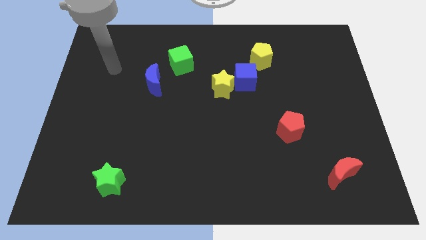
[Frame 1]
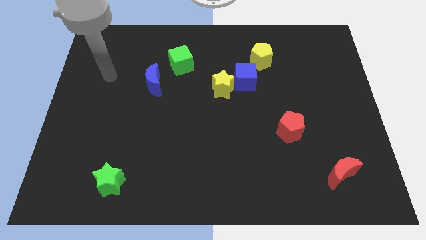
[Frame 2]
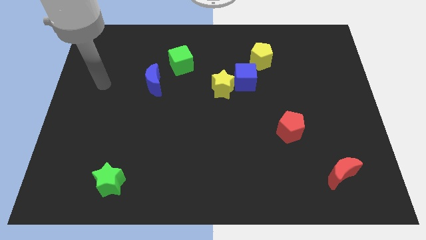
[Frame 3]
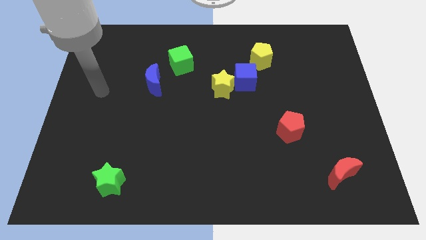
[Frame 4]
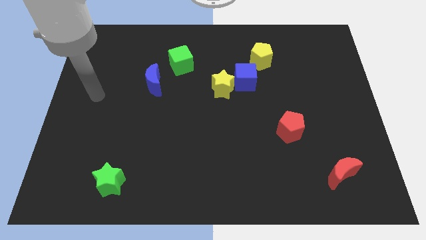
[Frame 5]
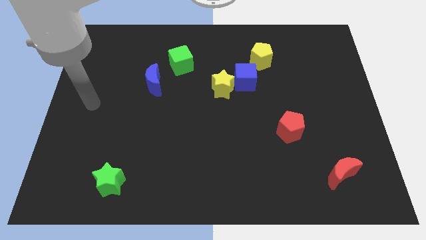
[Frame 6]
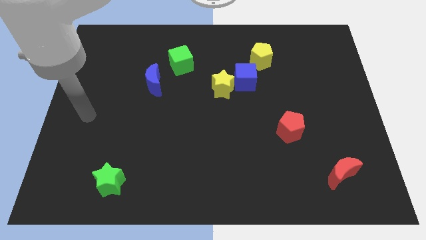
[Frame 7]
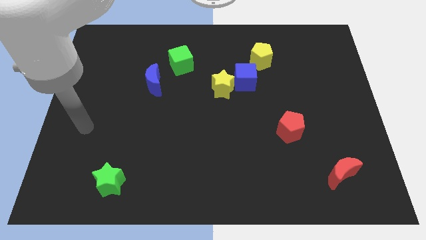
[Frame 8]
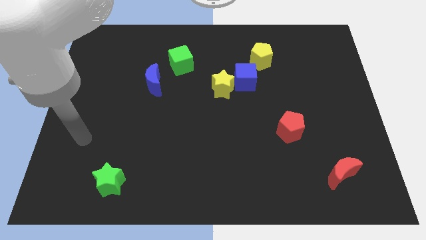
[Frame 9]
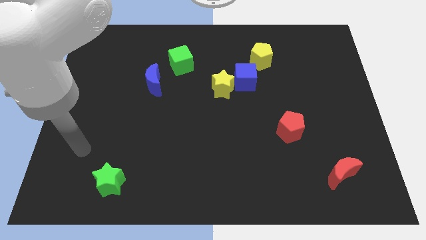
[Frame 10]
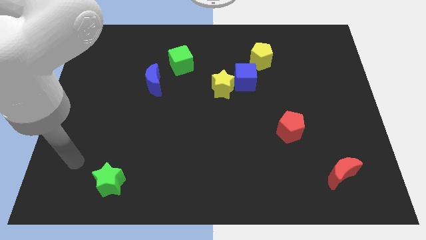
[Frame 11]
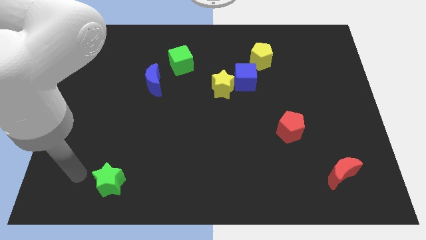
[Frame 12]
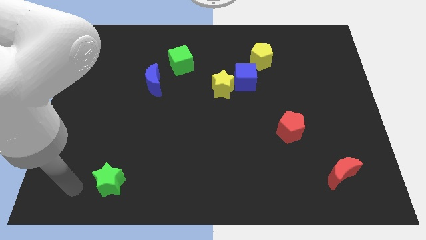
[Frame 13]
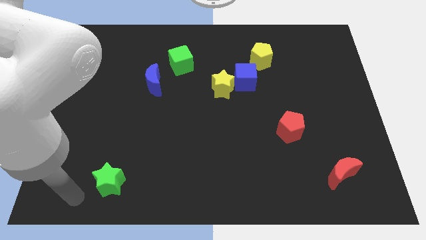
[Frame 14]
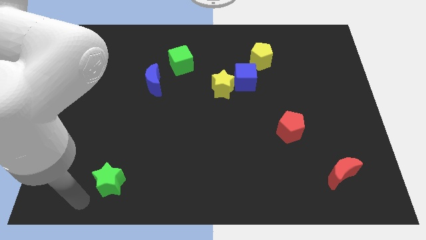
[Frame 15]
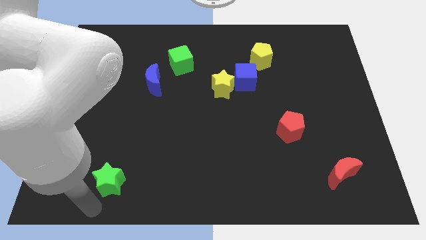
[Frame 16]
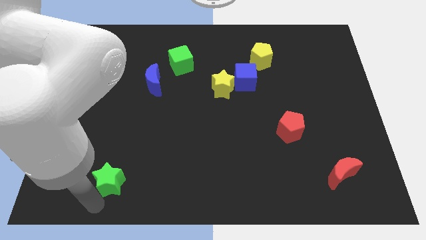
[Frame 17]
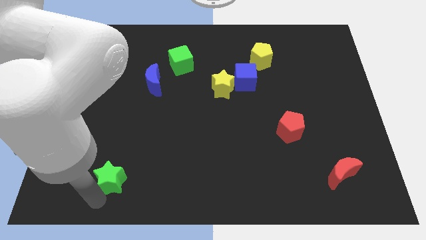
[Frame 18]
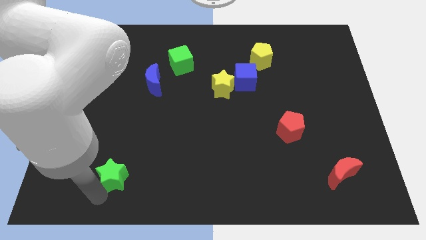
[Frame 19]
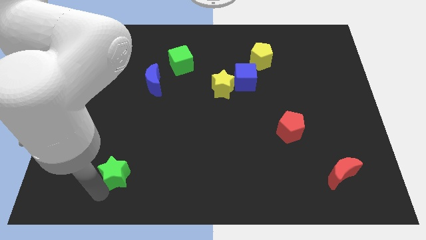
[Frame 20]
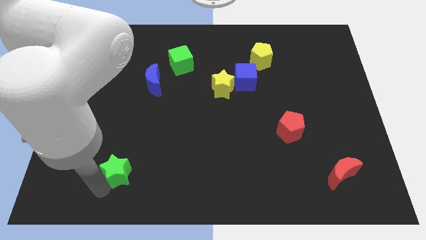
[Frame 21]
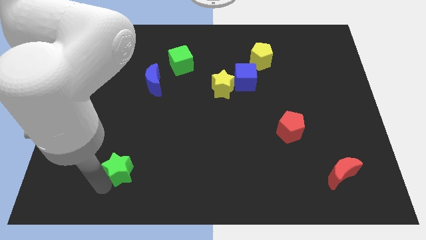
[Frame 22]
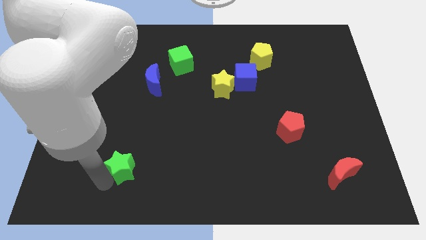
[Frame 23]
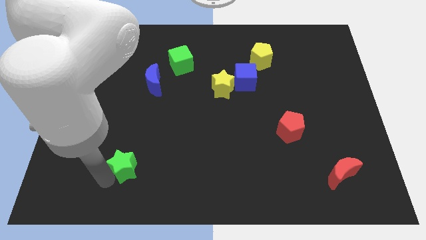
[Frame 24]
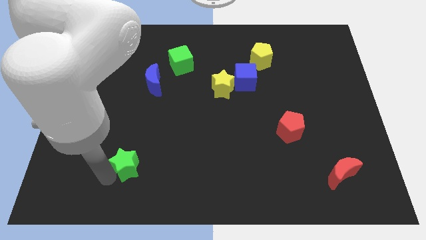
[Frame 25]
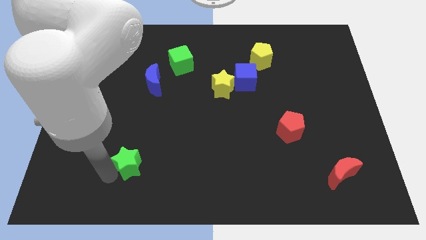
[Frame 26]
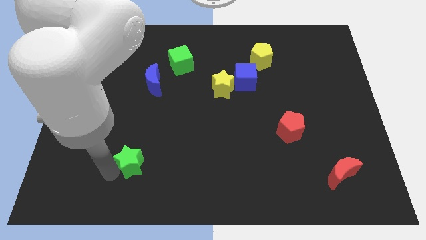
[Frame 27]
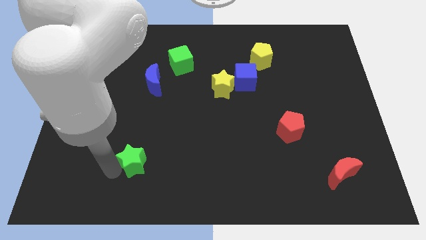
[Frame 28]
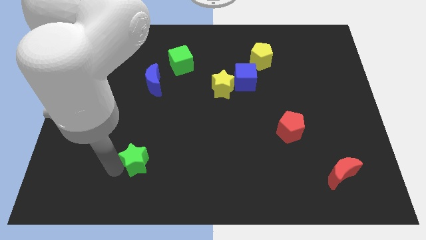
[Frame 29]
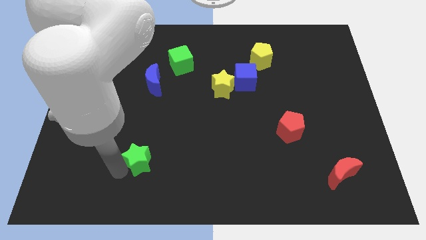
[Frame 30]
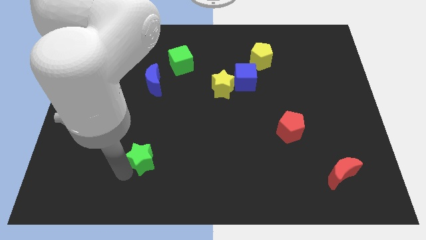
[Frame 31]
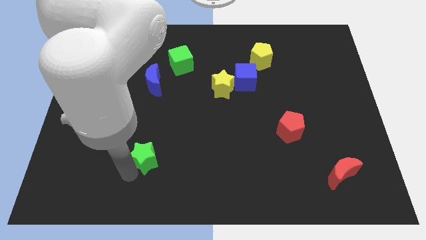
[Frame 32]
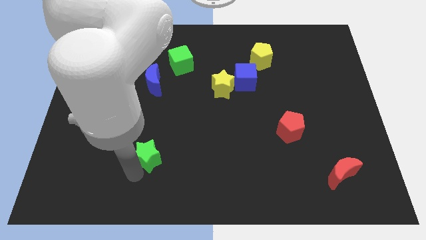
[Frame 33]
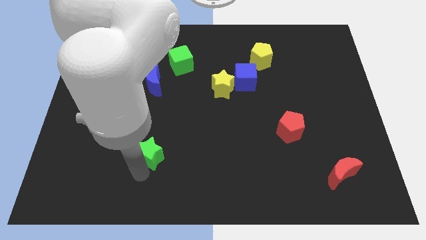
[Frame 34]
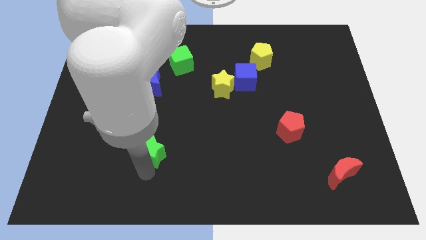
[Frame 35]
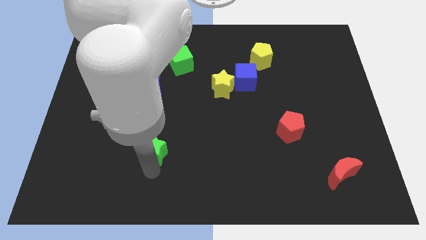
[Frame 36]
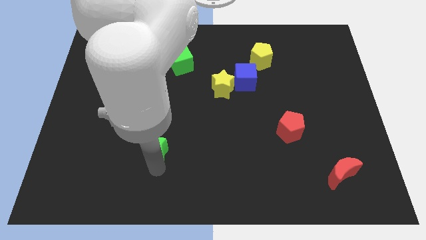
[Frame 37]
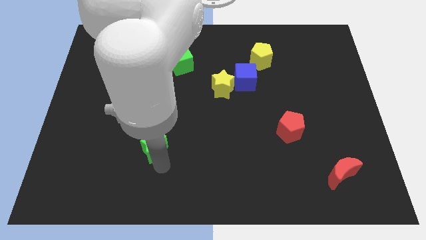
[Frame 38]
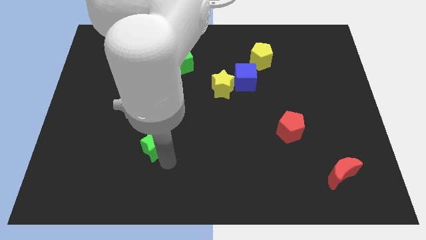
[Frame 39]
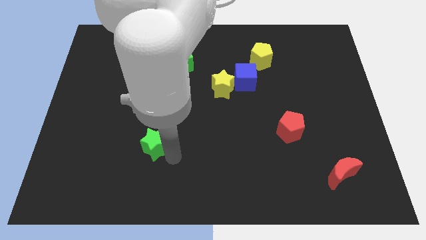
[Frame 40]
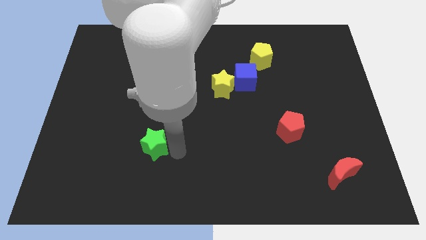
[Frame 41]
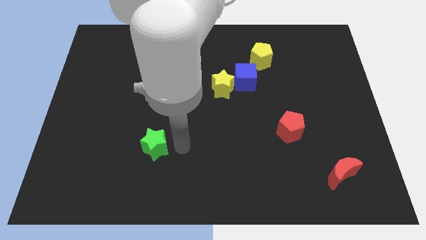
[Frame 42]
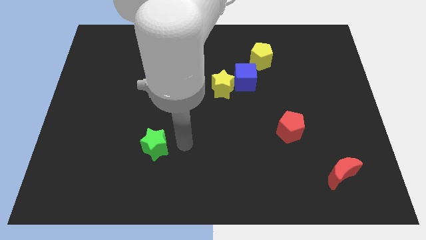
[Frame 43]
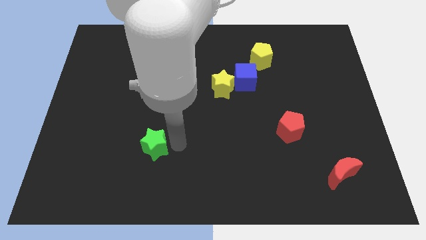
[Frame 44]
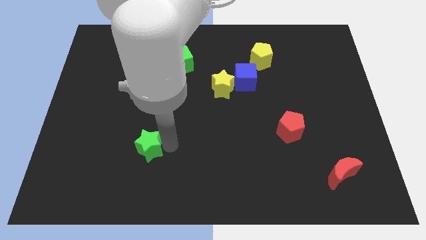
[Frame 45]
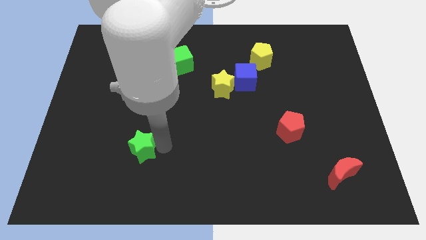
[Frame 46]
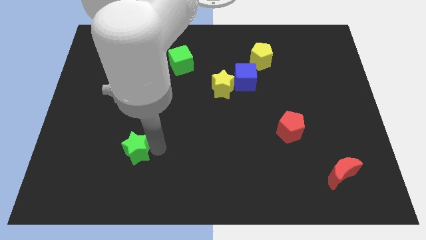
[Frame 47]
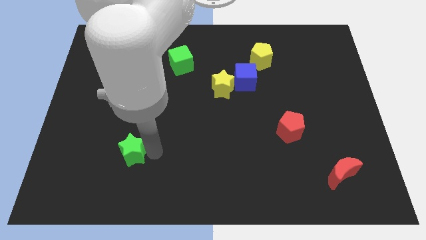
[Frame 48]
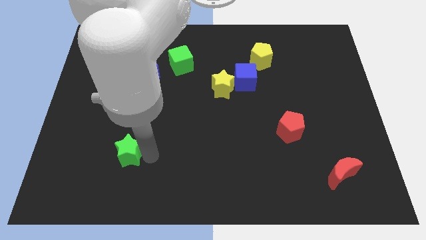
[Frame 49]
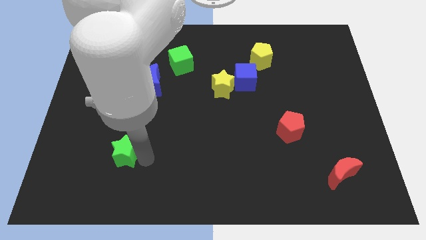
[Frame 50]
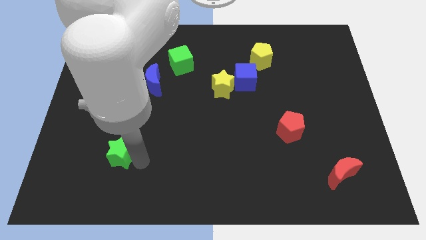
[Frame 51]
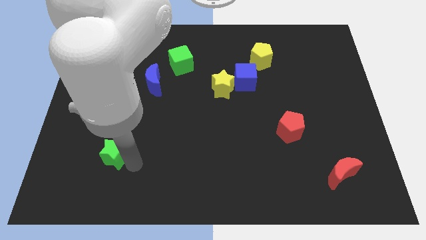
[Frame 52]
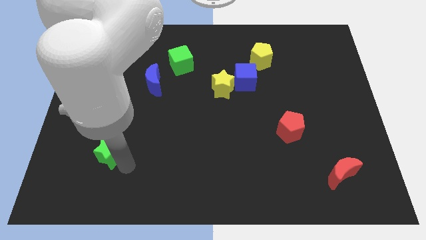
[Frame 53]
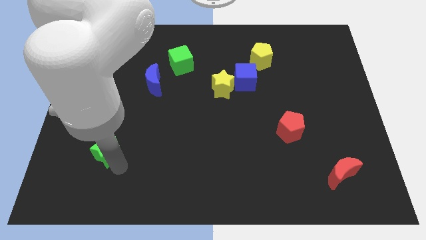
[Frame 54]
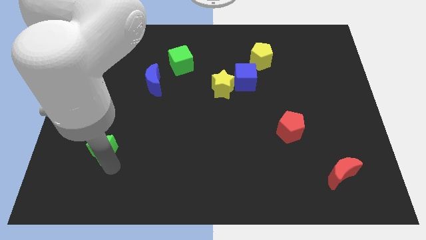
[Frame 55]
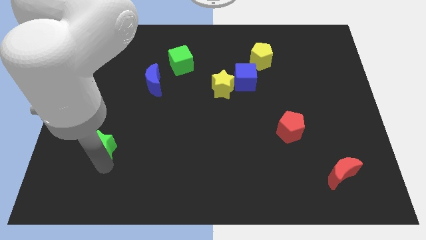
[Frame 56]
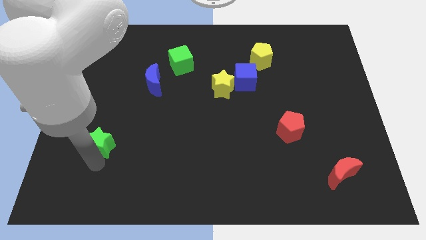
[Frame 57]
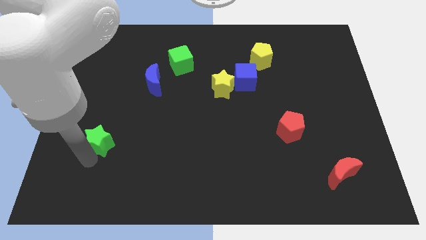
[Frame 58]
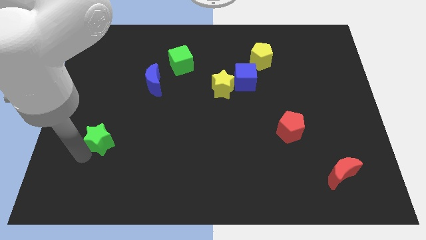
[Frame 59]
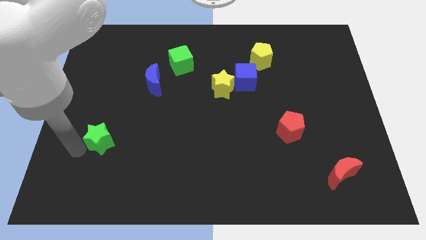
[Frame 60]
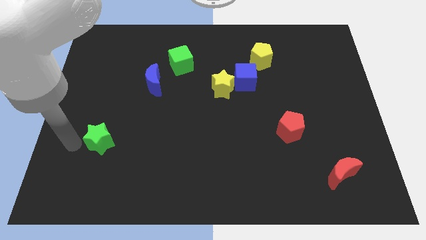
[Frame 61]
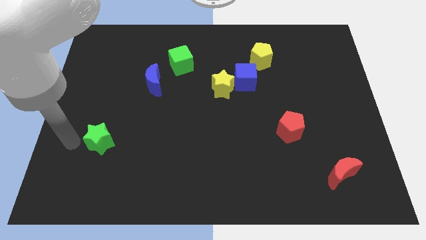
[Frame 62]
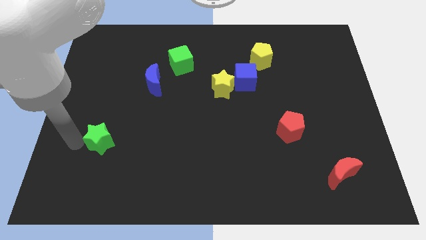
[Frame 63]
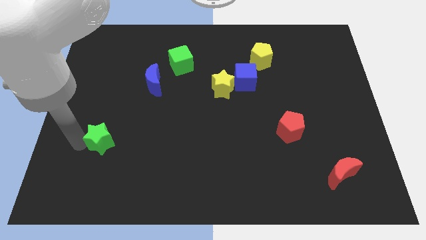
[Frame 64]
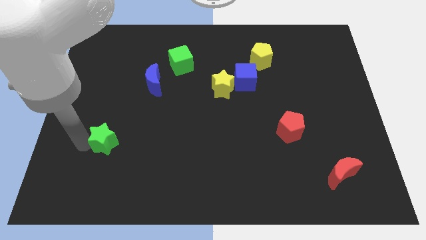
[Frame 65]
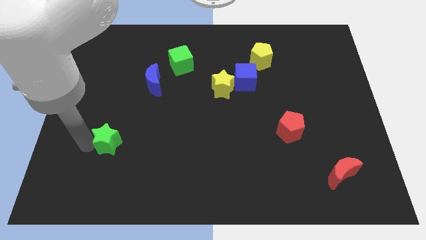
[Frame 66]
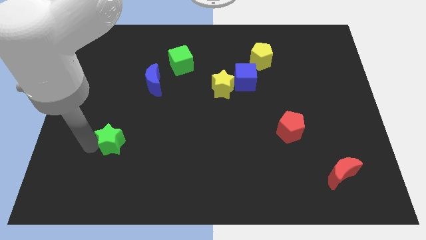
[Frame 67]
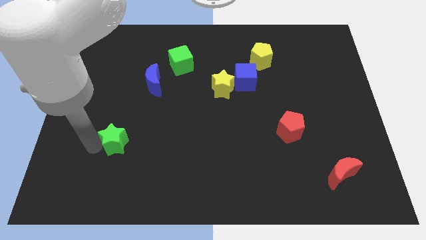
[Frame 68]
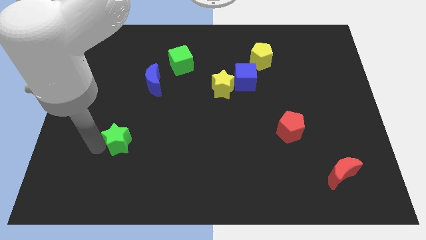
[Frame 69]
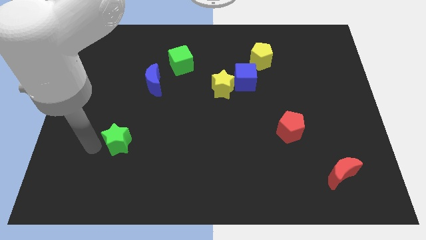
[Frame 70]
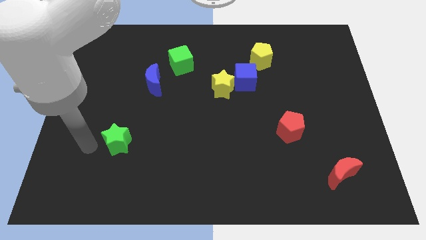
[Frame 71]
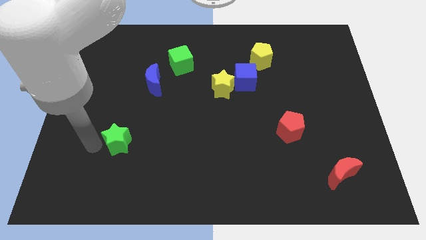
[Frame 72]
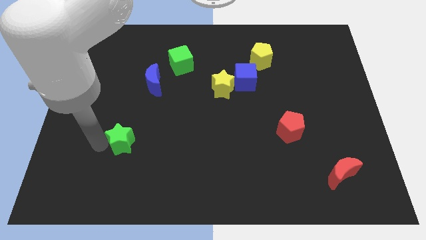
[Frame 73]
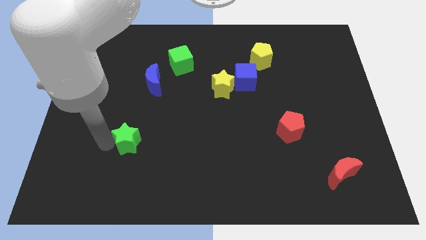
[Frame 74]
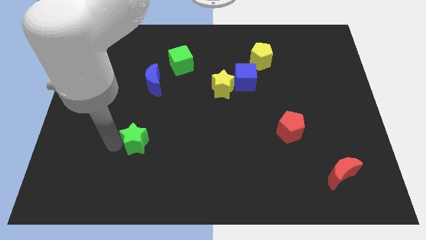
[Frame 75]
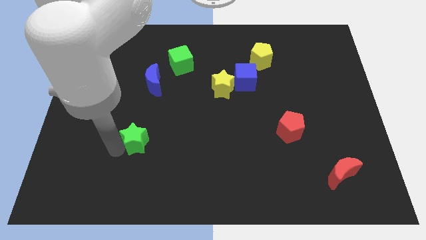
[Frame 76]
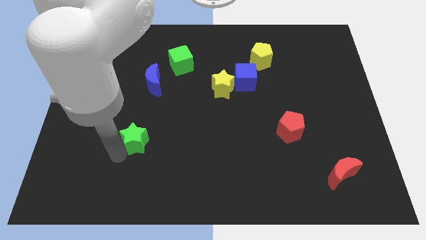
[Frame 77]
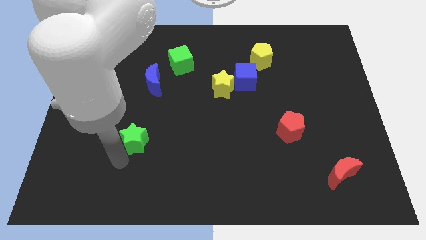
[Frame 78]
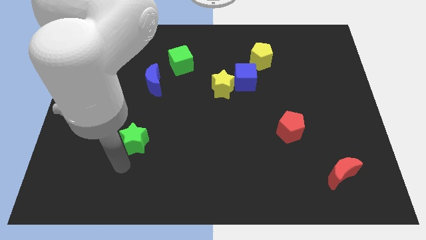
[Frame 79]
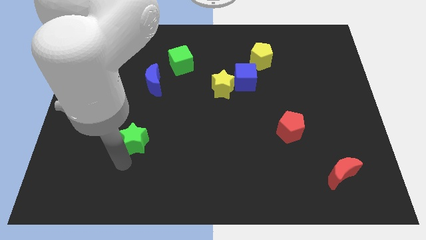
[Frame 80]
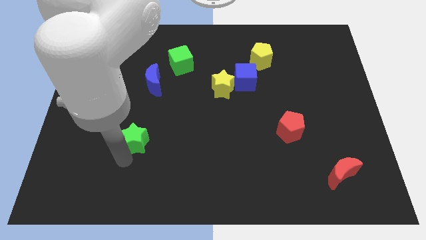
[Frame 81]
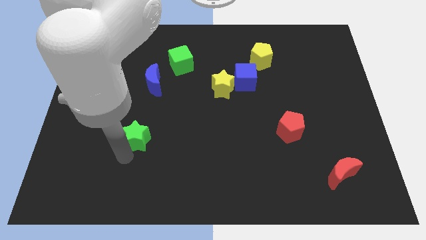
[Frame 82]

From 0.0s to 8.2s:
push the green star to the bottom side of the blue moon
